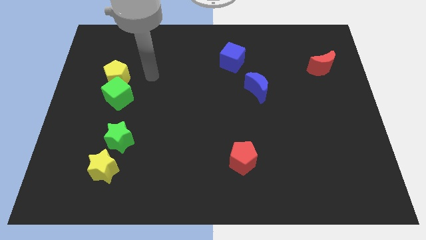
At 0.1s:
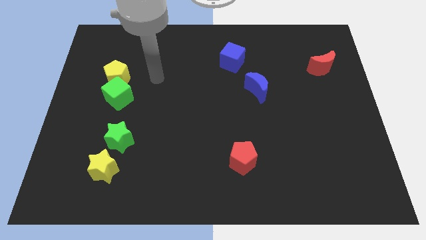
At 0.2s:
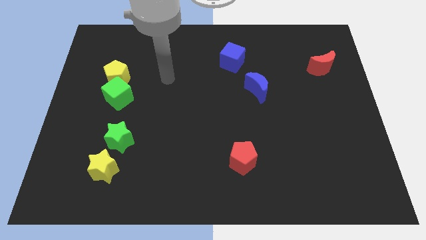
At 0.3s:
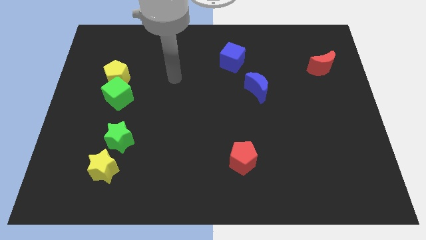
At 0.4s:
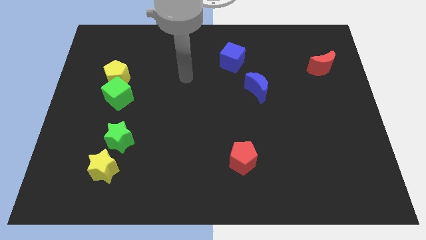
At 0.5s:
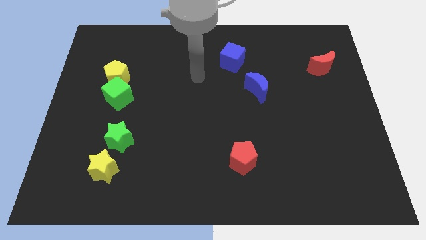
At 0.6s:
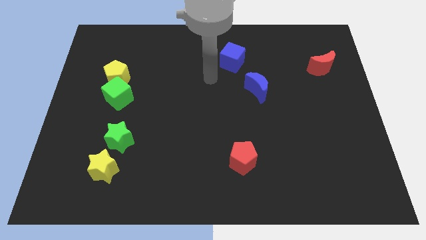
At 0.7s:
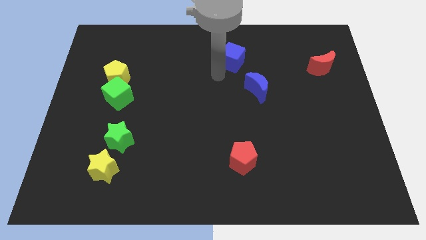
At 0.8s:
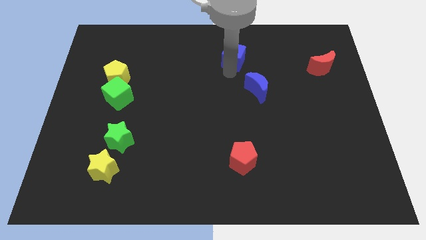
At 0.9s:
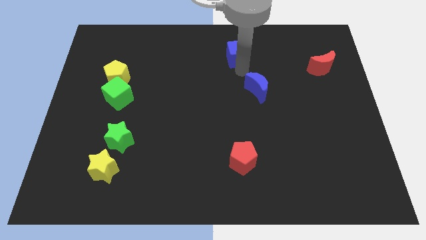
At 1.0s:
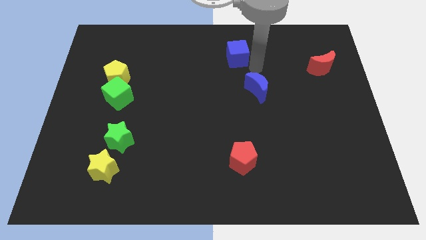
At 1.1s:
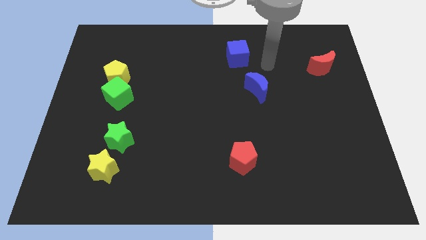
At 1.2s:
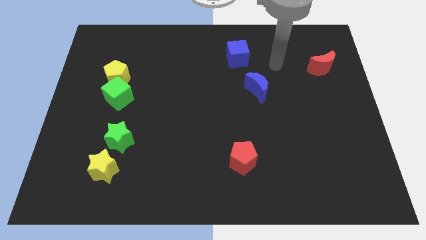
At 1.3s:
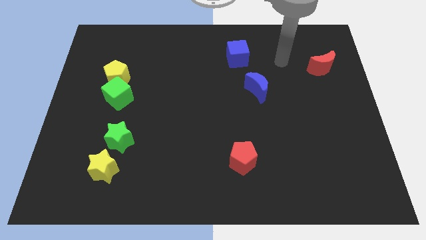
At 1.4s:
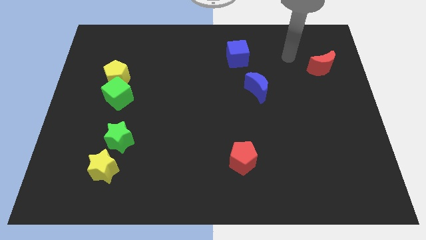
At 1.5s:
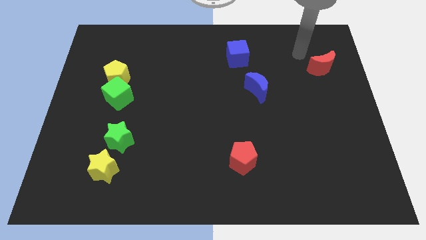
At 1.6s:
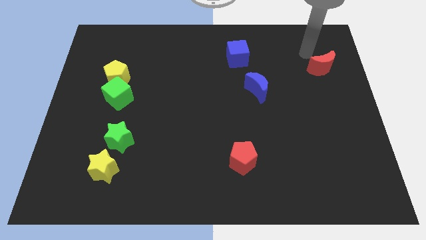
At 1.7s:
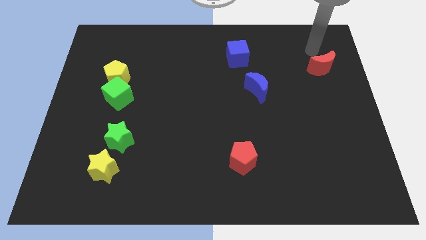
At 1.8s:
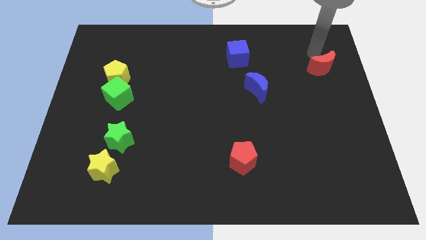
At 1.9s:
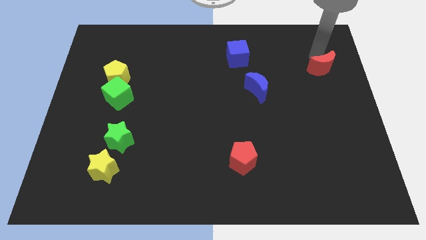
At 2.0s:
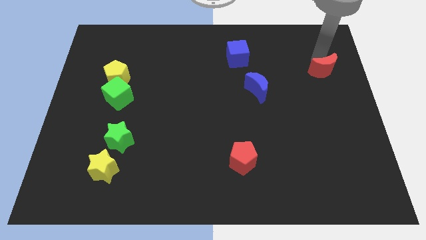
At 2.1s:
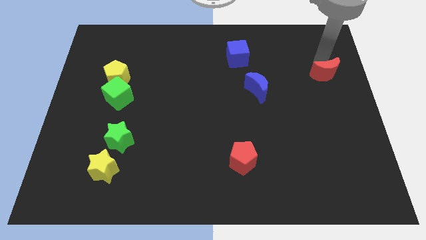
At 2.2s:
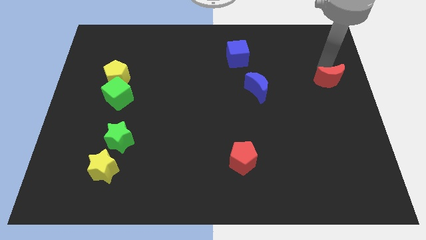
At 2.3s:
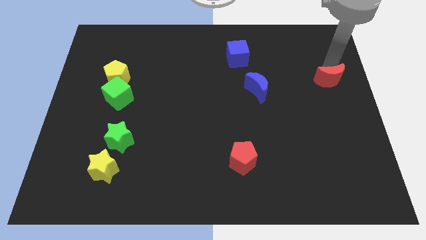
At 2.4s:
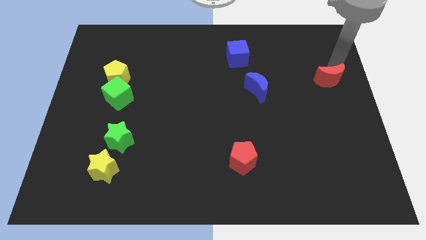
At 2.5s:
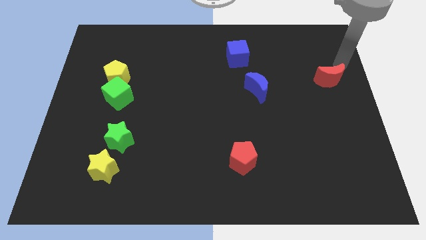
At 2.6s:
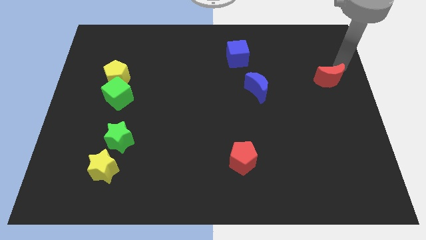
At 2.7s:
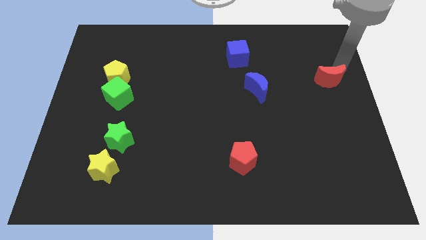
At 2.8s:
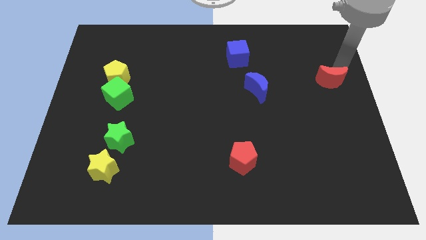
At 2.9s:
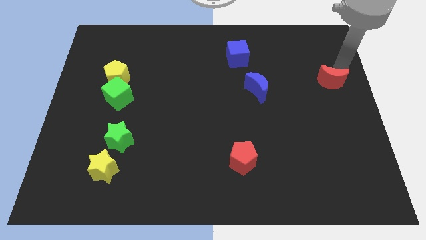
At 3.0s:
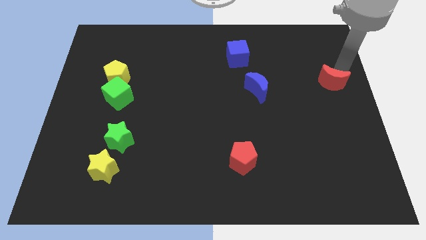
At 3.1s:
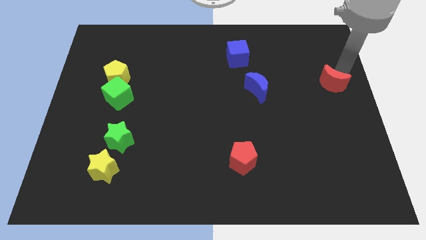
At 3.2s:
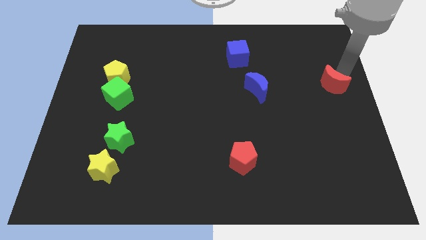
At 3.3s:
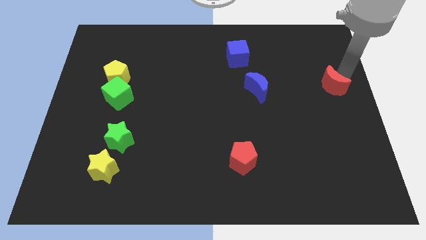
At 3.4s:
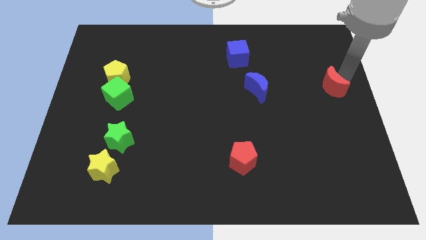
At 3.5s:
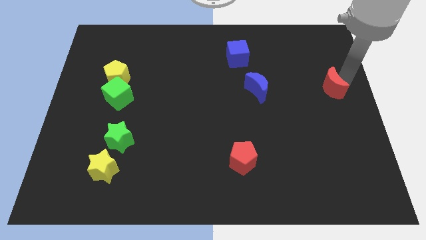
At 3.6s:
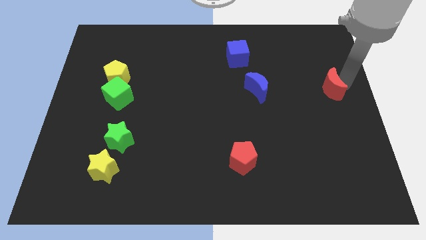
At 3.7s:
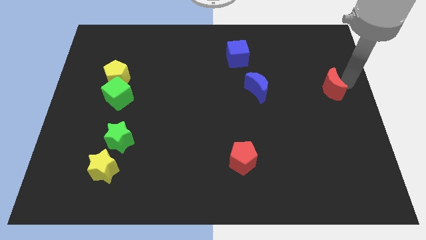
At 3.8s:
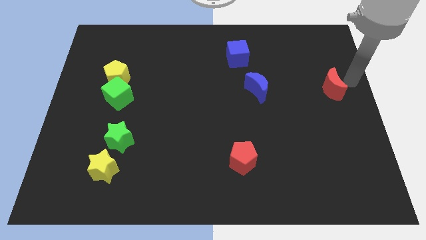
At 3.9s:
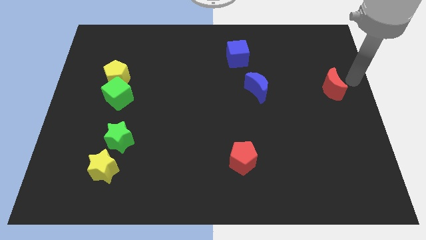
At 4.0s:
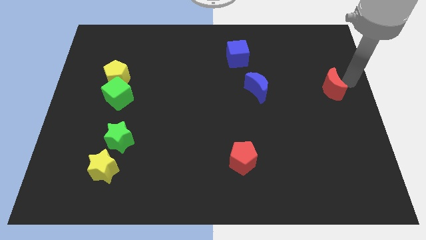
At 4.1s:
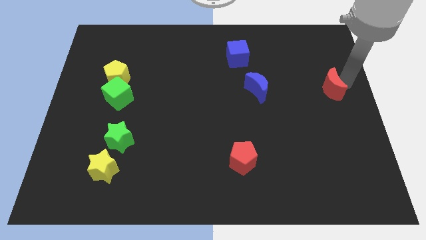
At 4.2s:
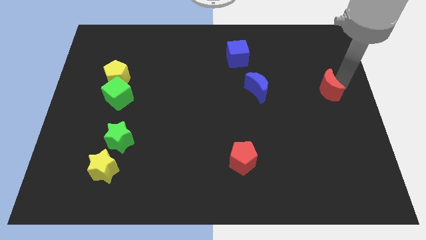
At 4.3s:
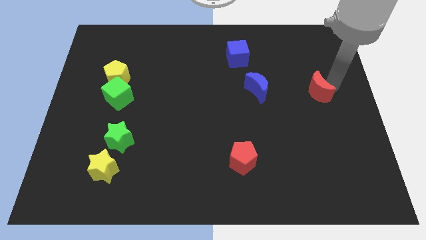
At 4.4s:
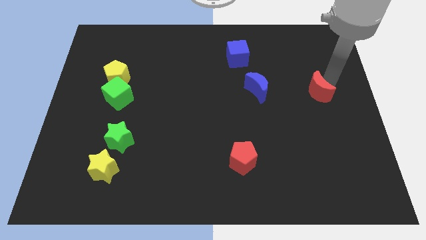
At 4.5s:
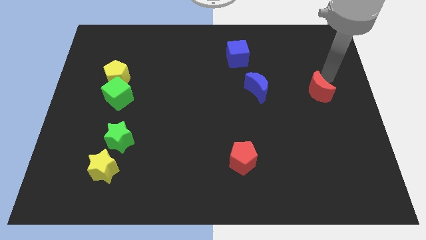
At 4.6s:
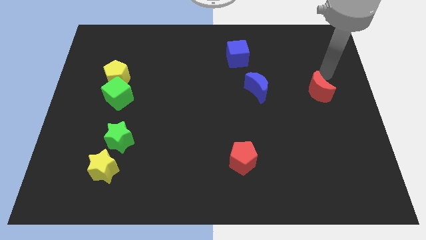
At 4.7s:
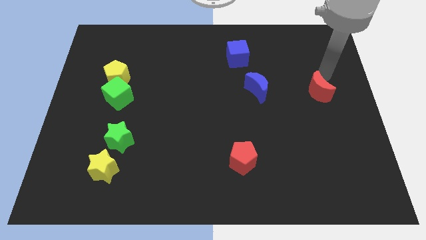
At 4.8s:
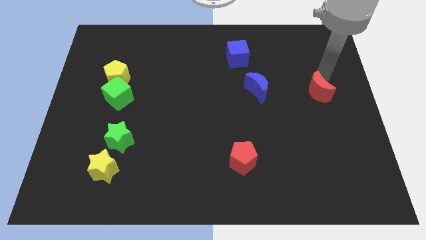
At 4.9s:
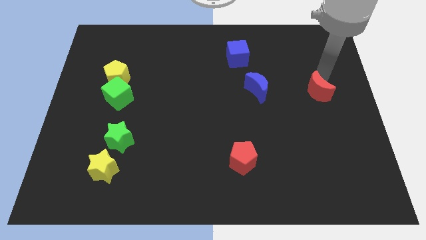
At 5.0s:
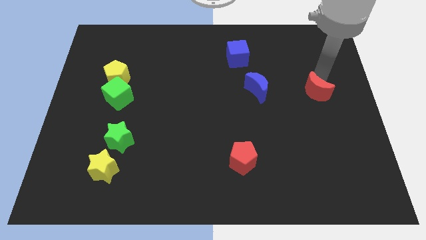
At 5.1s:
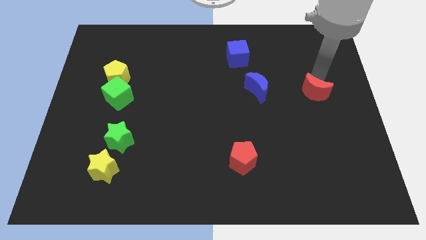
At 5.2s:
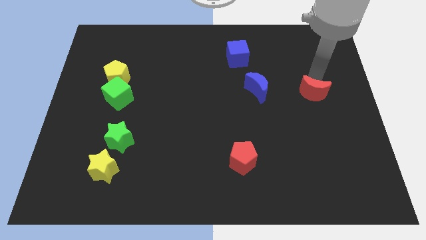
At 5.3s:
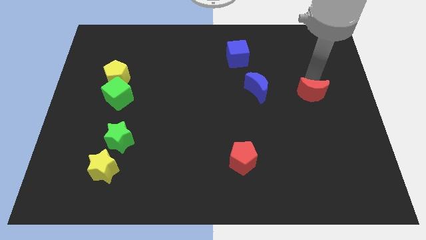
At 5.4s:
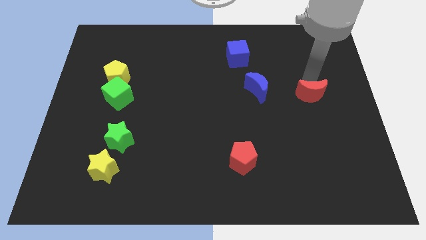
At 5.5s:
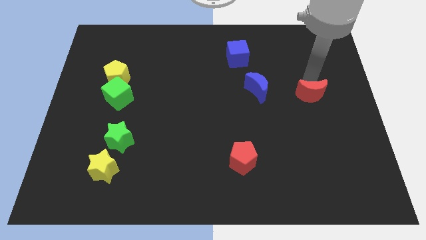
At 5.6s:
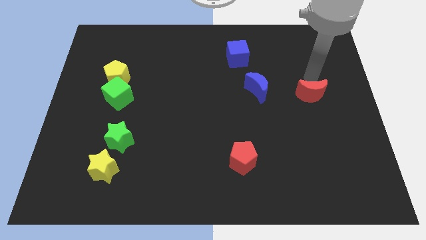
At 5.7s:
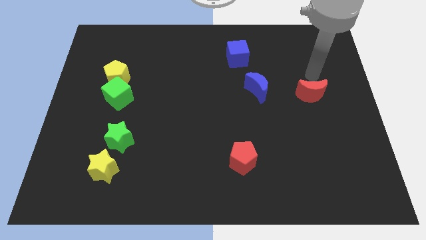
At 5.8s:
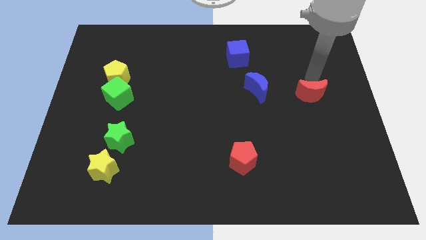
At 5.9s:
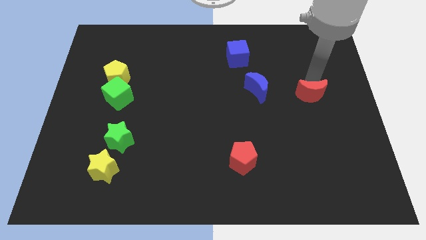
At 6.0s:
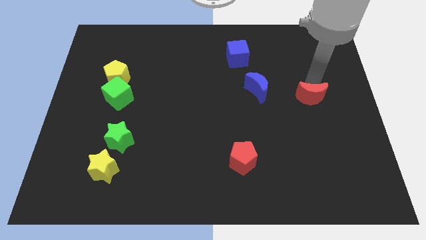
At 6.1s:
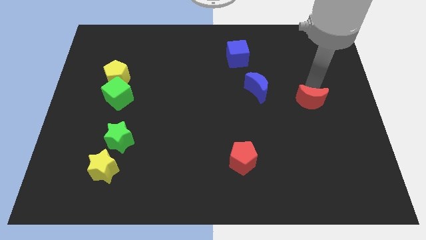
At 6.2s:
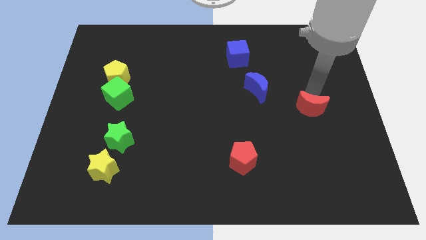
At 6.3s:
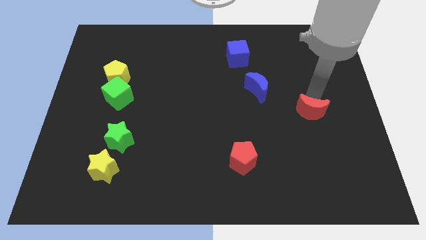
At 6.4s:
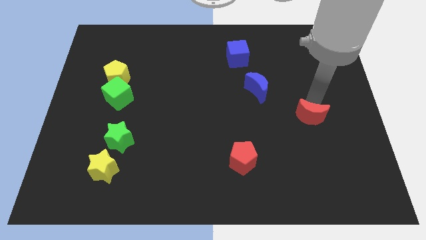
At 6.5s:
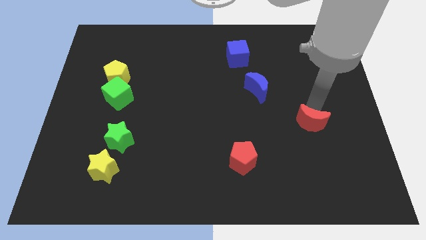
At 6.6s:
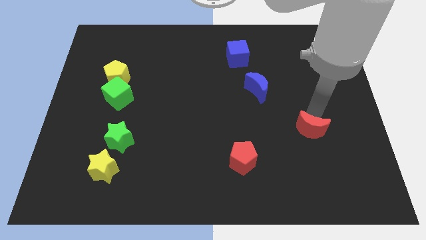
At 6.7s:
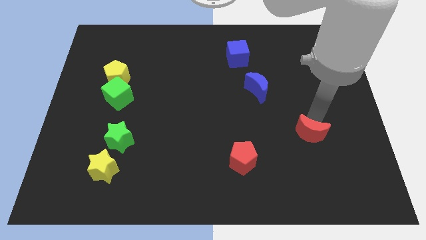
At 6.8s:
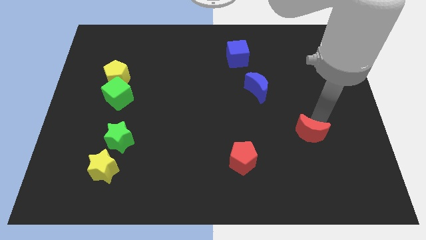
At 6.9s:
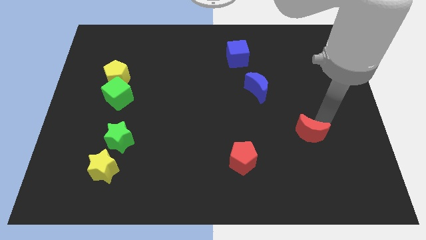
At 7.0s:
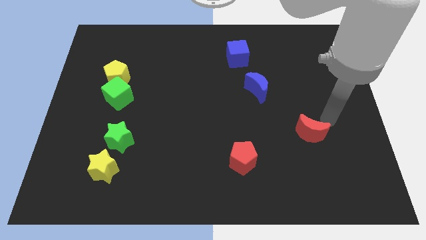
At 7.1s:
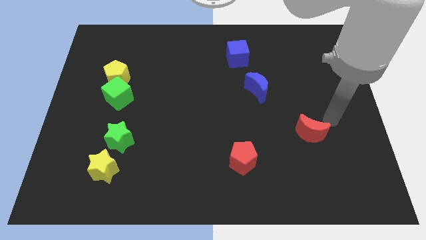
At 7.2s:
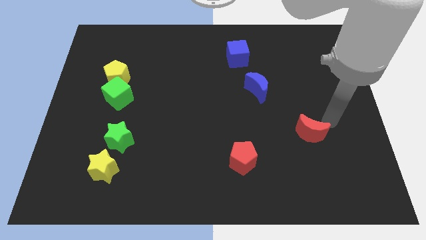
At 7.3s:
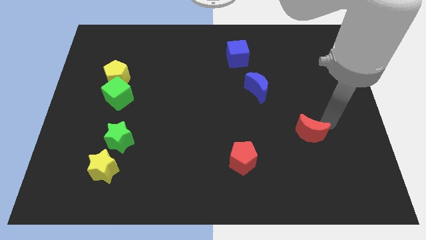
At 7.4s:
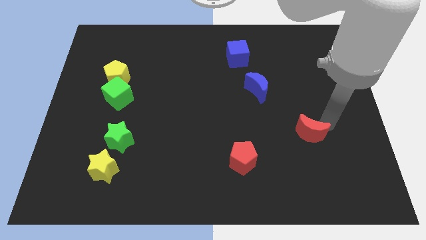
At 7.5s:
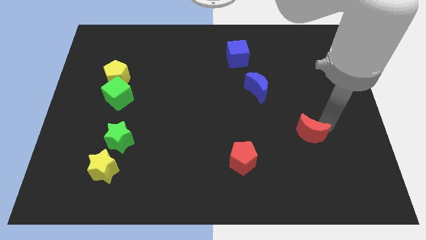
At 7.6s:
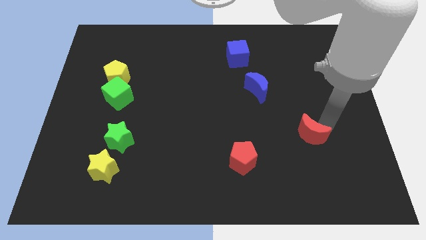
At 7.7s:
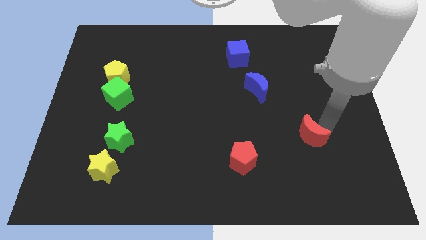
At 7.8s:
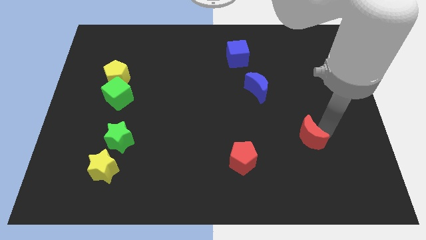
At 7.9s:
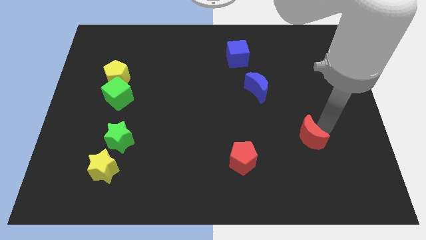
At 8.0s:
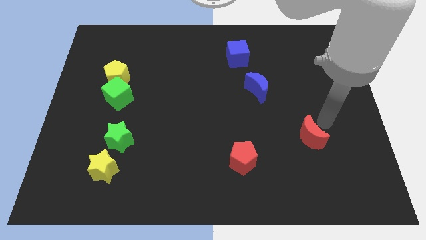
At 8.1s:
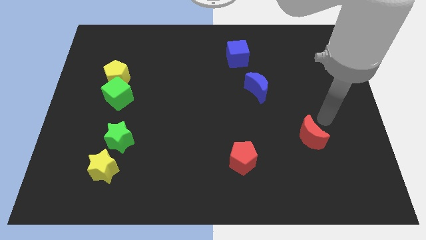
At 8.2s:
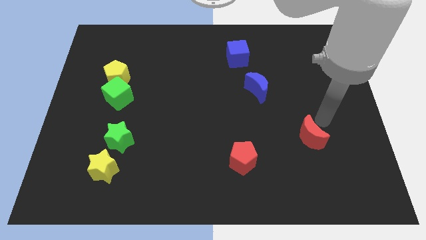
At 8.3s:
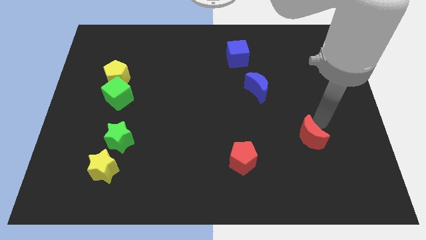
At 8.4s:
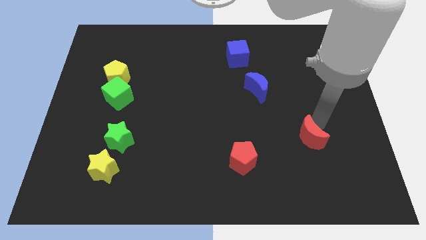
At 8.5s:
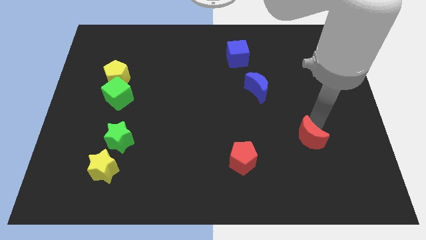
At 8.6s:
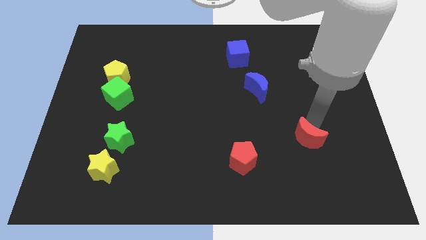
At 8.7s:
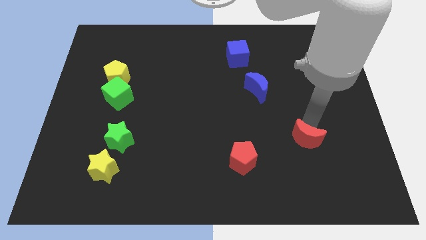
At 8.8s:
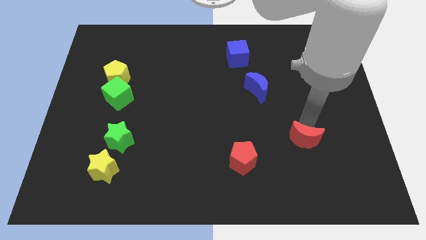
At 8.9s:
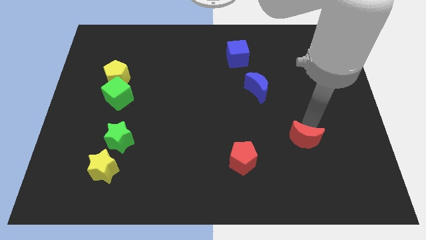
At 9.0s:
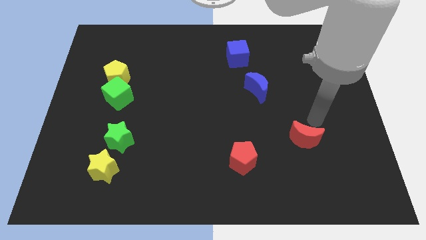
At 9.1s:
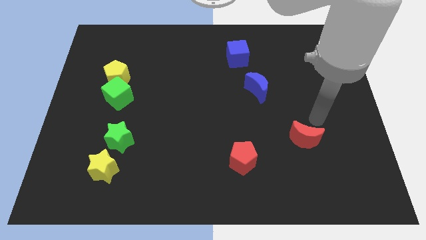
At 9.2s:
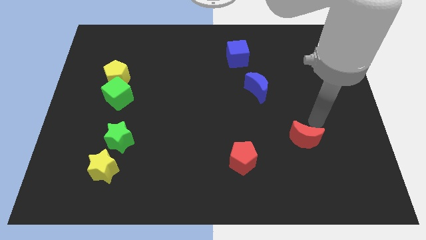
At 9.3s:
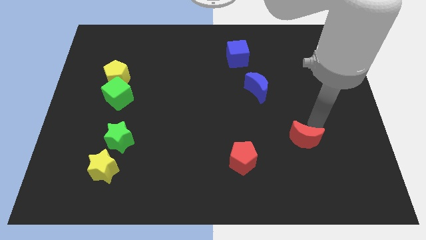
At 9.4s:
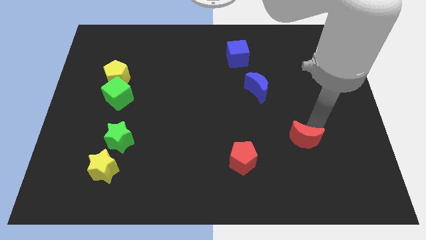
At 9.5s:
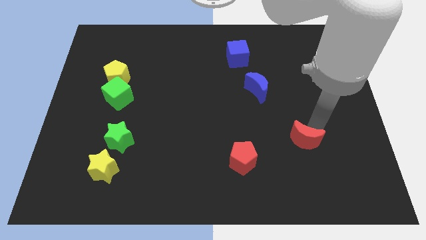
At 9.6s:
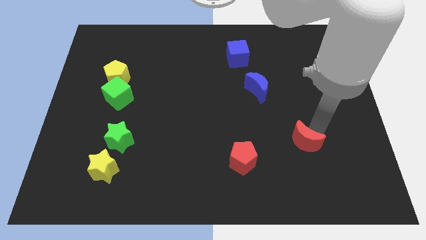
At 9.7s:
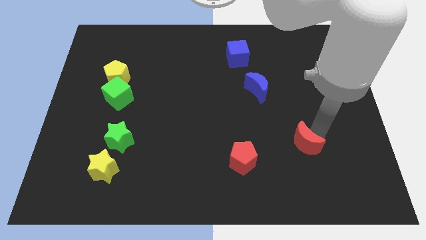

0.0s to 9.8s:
move the red moon to the right of the red pentagon
